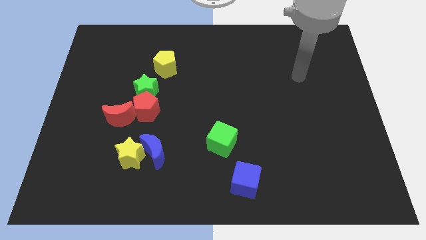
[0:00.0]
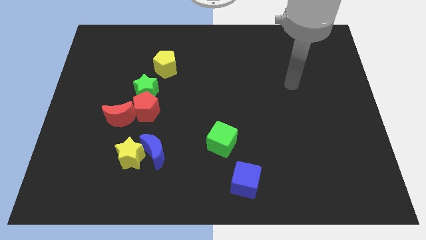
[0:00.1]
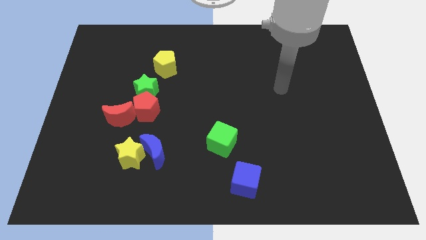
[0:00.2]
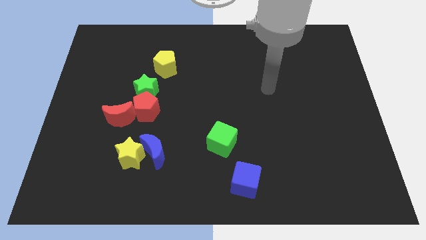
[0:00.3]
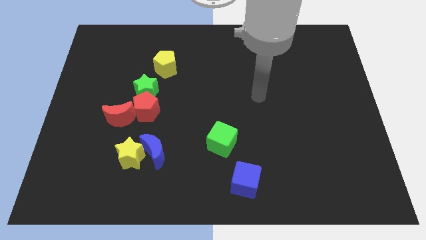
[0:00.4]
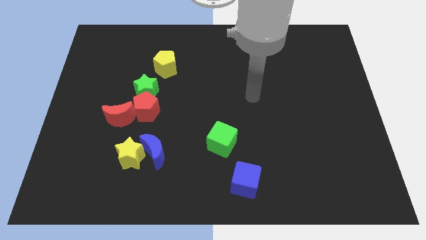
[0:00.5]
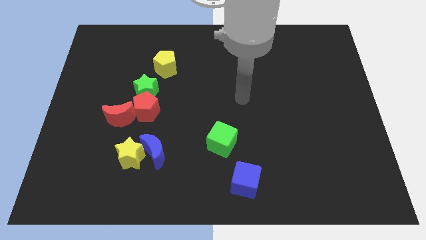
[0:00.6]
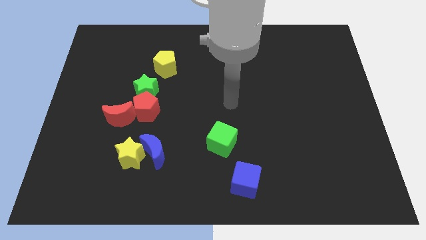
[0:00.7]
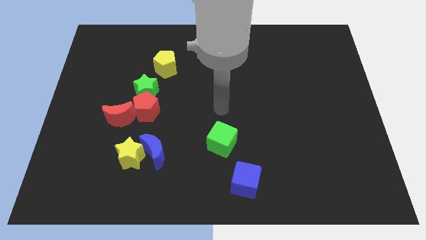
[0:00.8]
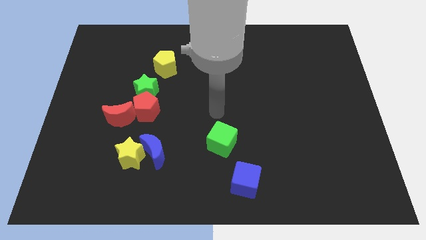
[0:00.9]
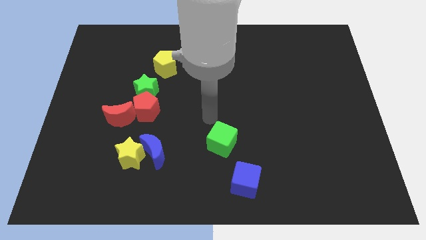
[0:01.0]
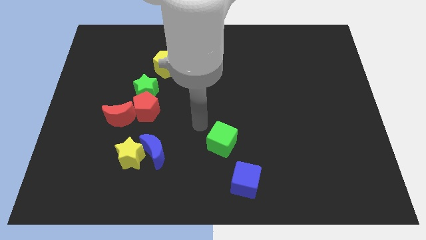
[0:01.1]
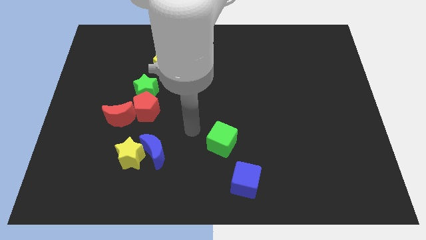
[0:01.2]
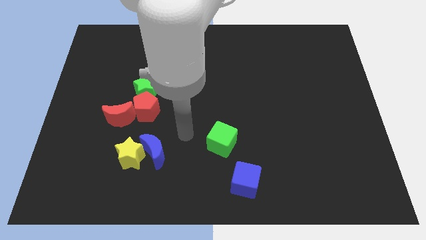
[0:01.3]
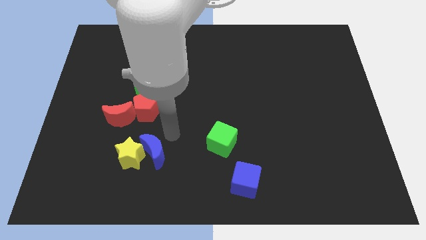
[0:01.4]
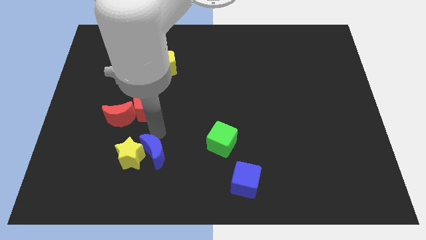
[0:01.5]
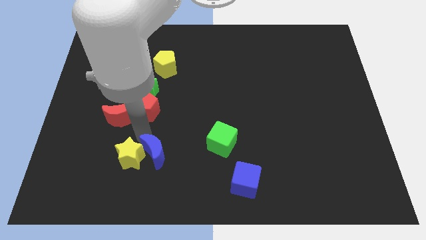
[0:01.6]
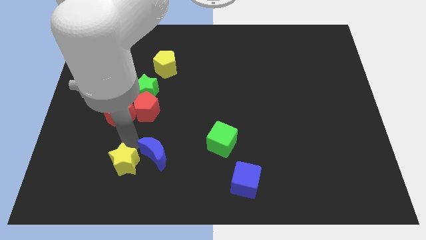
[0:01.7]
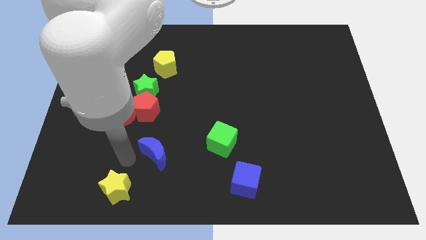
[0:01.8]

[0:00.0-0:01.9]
pull the blue moon apart from the yellow star

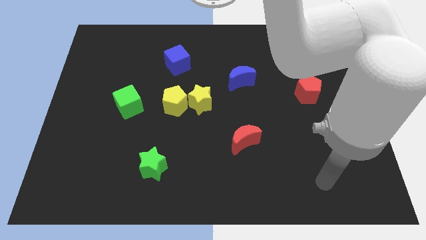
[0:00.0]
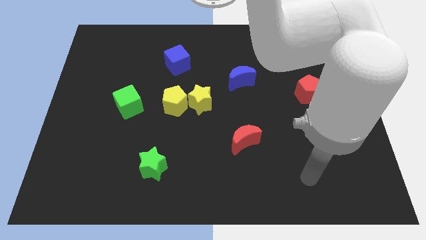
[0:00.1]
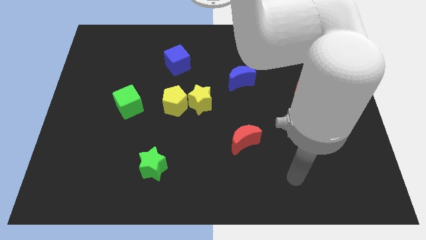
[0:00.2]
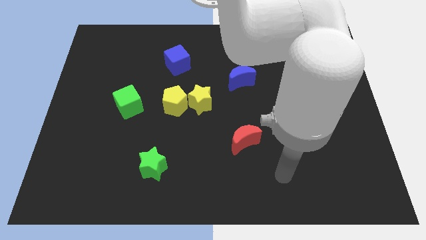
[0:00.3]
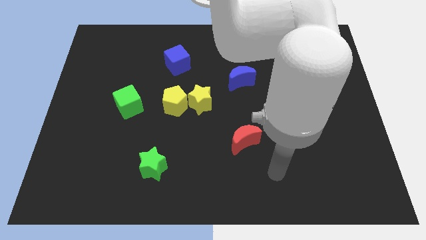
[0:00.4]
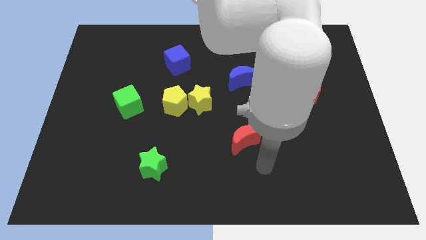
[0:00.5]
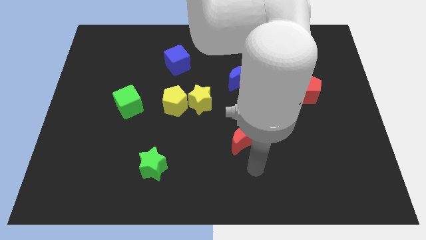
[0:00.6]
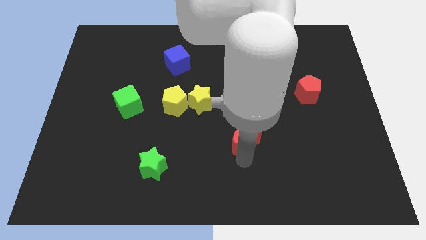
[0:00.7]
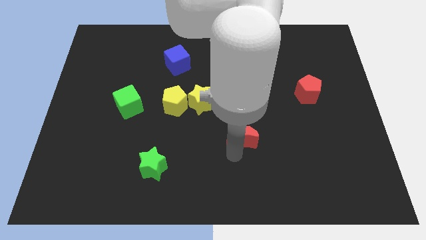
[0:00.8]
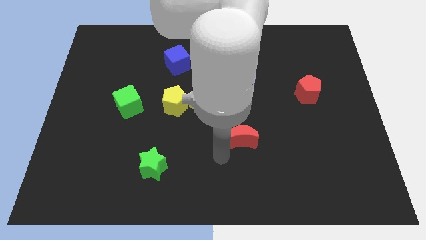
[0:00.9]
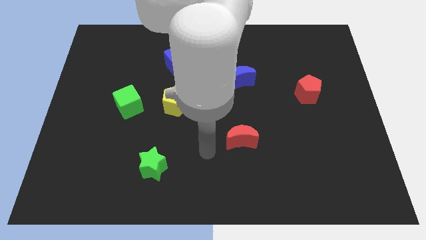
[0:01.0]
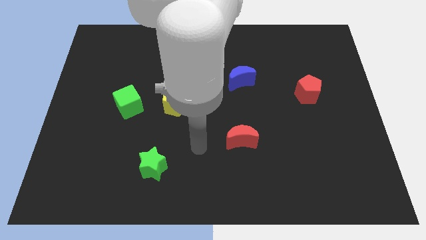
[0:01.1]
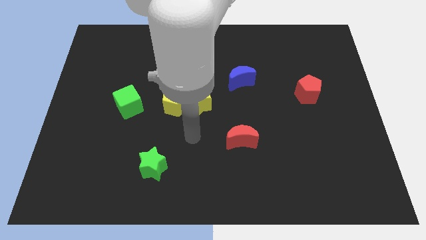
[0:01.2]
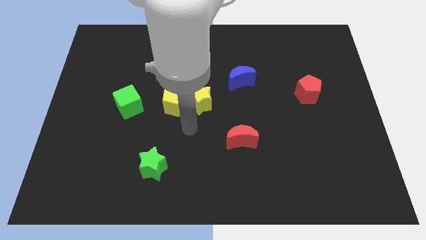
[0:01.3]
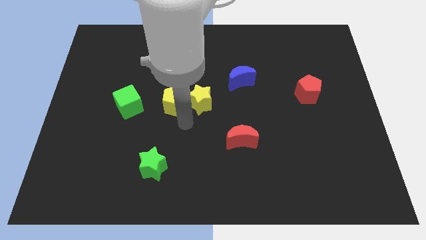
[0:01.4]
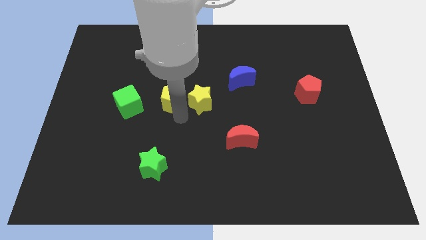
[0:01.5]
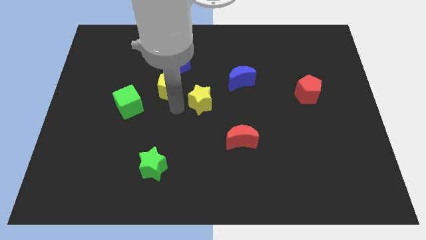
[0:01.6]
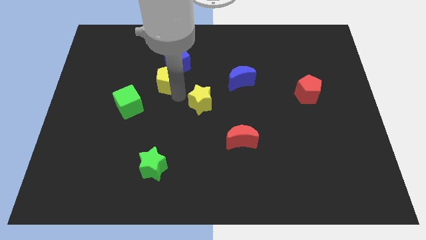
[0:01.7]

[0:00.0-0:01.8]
separate the yellow star from the yellow pentagon

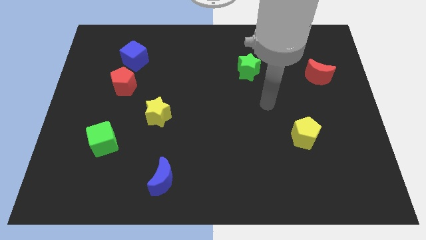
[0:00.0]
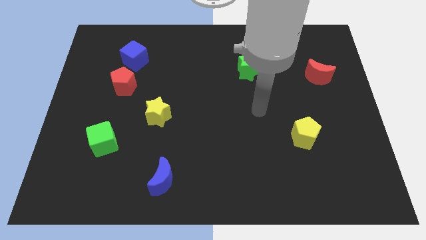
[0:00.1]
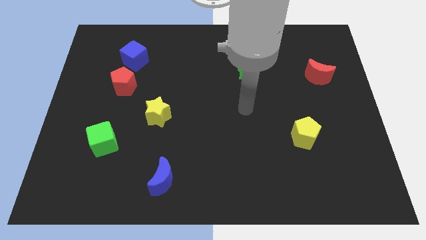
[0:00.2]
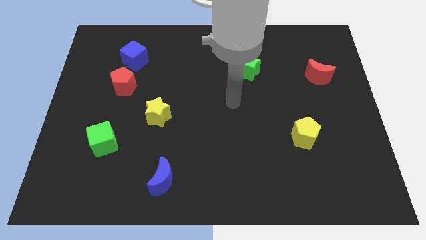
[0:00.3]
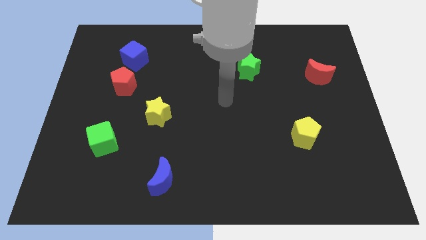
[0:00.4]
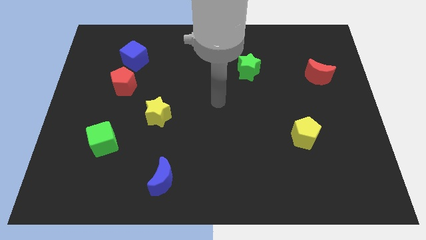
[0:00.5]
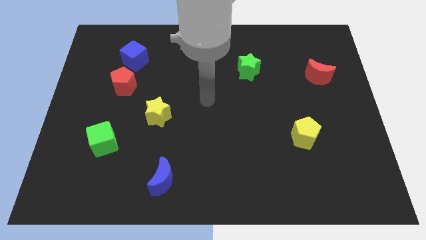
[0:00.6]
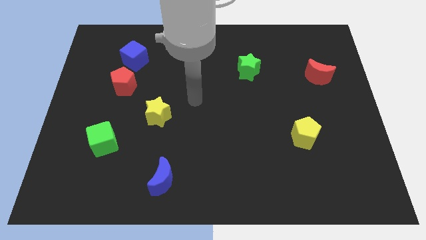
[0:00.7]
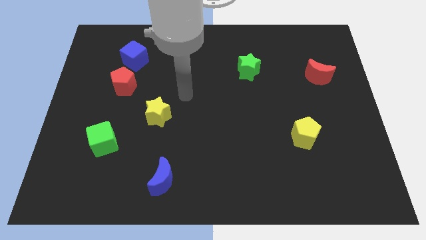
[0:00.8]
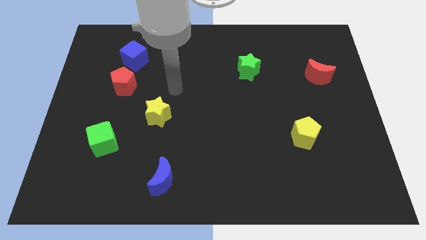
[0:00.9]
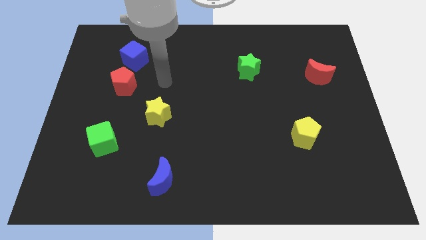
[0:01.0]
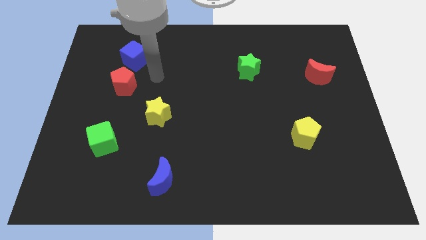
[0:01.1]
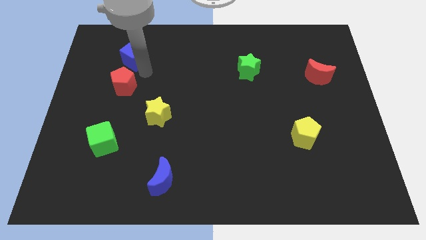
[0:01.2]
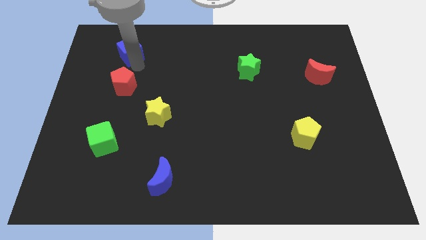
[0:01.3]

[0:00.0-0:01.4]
separate the red pentagon from the blue cube

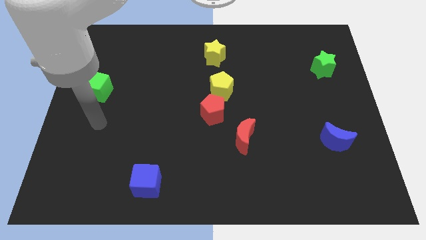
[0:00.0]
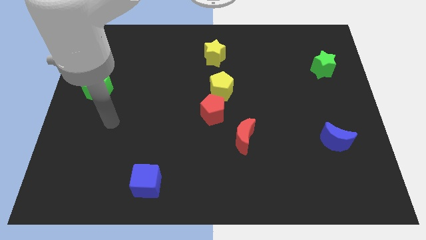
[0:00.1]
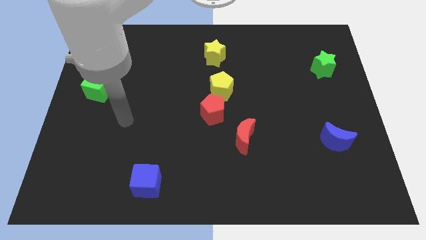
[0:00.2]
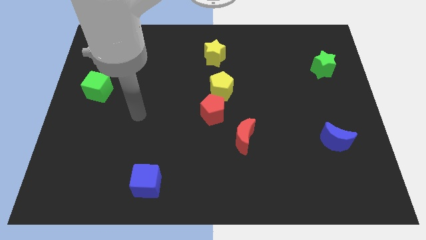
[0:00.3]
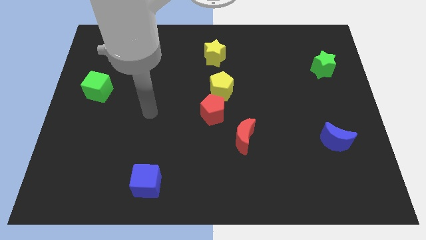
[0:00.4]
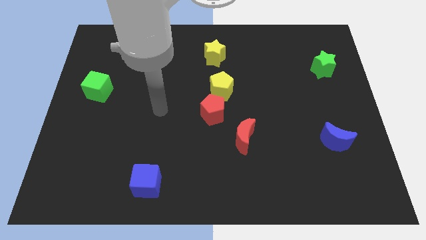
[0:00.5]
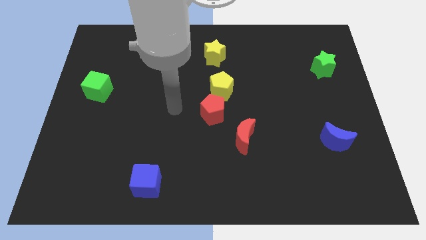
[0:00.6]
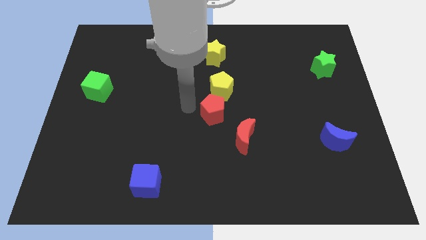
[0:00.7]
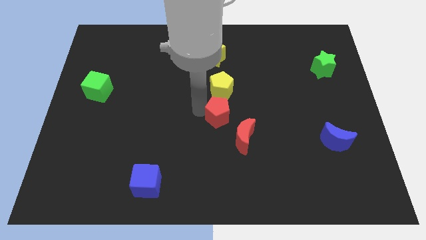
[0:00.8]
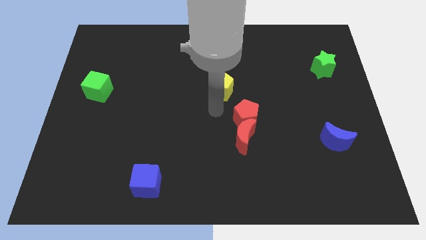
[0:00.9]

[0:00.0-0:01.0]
pull the yellow pentagon apart from the red pentagon

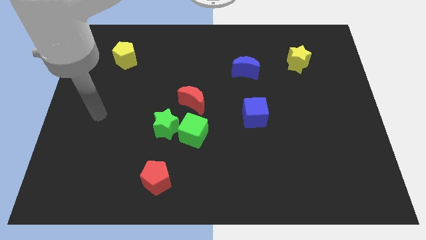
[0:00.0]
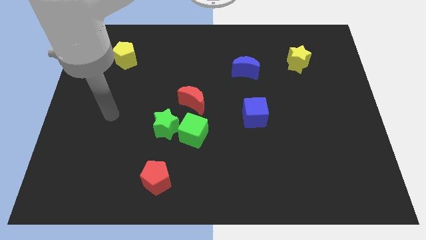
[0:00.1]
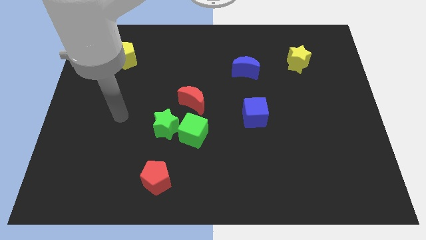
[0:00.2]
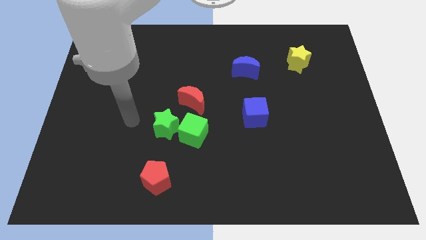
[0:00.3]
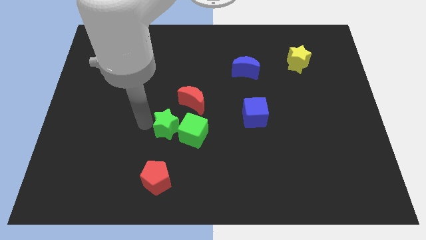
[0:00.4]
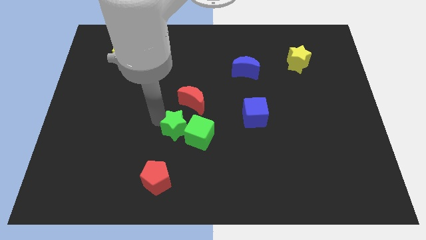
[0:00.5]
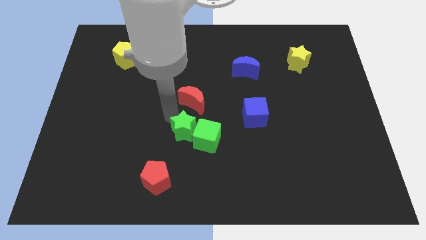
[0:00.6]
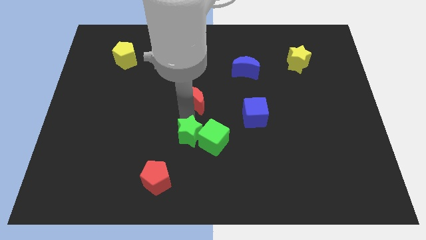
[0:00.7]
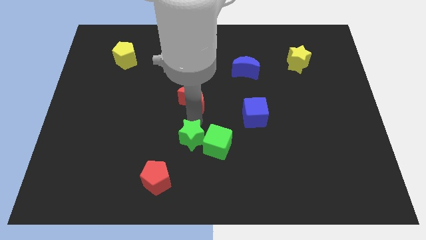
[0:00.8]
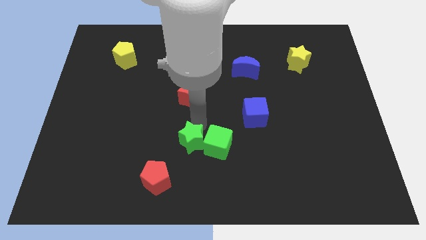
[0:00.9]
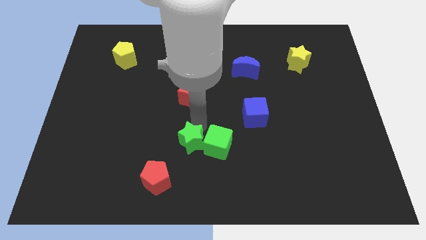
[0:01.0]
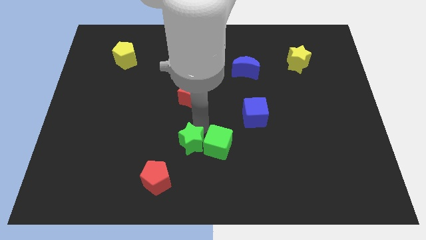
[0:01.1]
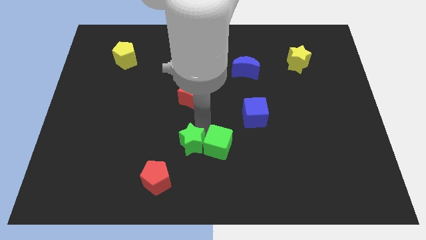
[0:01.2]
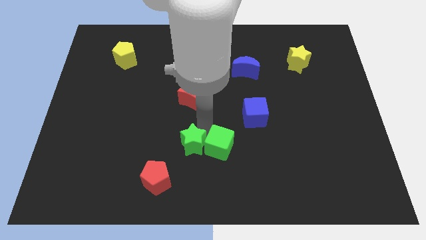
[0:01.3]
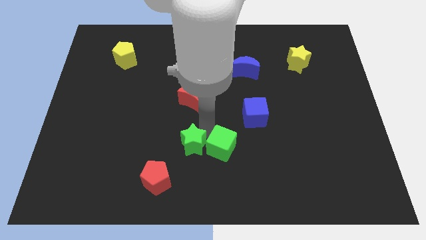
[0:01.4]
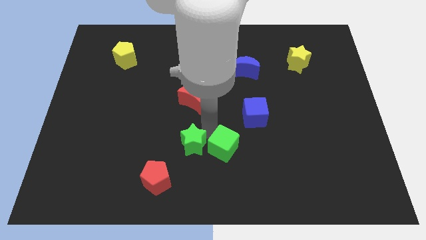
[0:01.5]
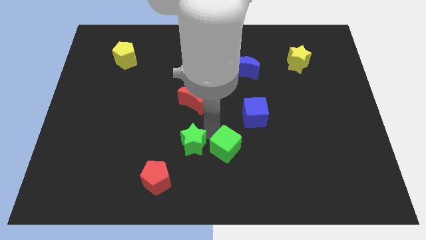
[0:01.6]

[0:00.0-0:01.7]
move the green cube away from the green star and red moon

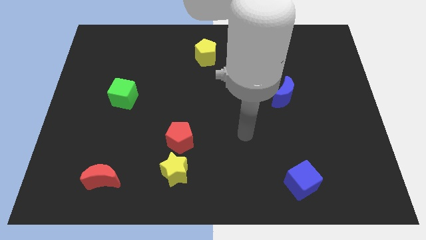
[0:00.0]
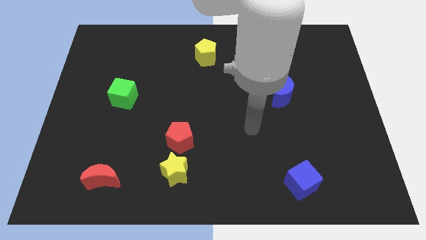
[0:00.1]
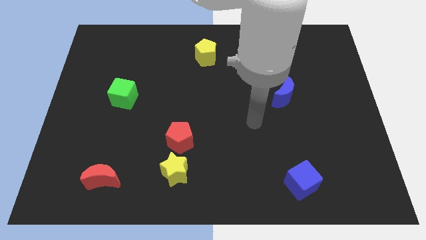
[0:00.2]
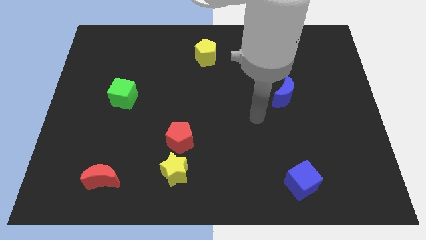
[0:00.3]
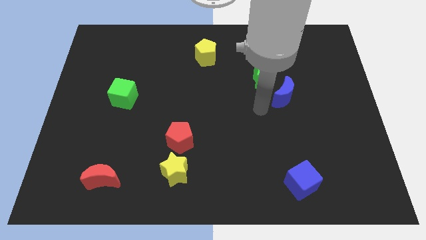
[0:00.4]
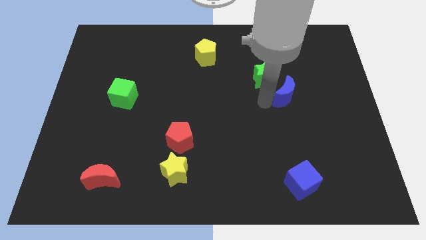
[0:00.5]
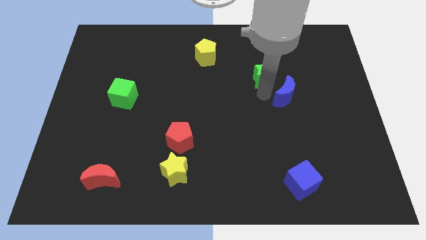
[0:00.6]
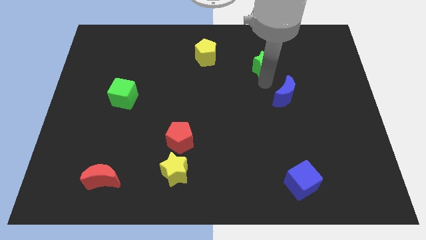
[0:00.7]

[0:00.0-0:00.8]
move the blue moon away from the green star

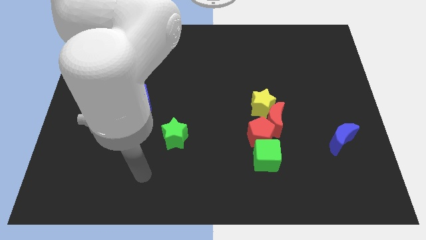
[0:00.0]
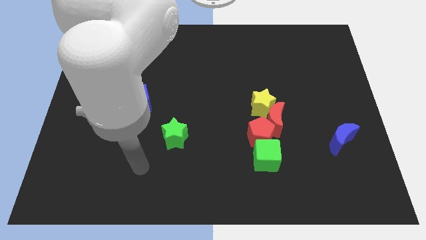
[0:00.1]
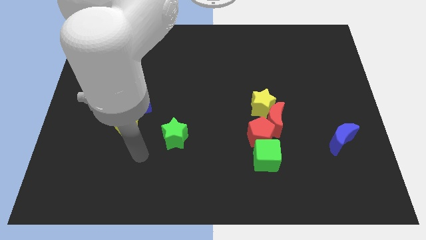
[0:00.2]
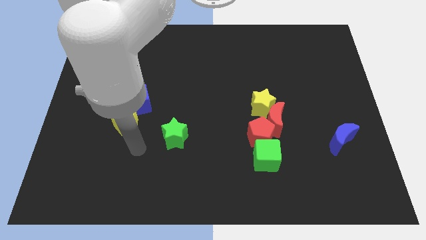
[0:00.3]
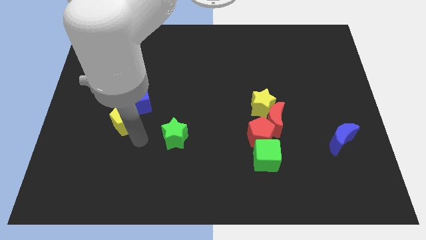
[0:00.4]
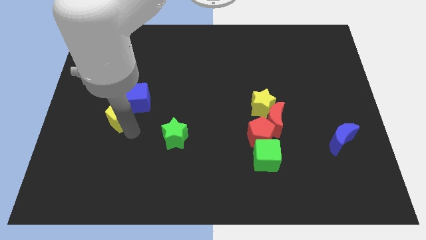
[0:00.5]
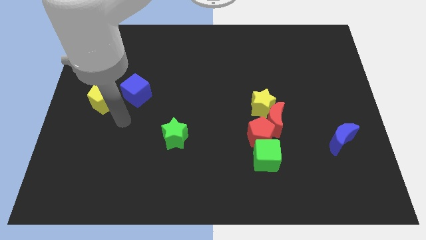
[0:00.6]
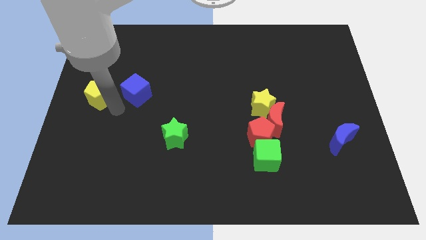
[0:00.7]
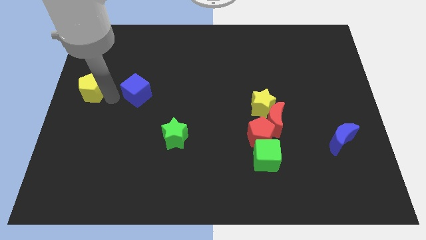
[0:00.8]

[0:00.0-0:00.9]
separate the blue cube from the yellow pentagon
